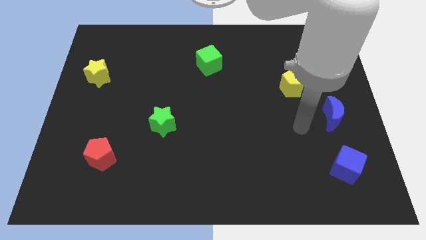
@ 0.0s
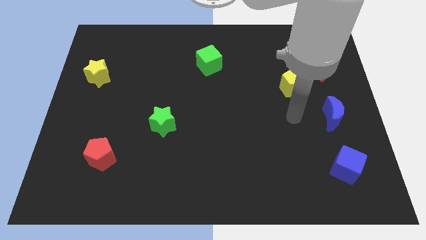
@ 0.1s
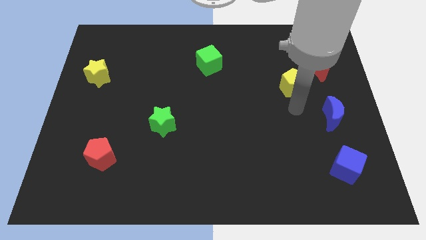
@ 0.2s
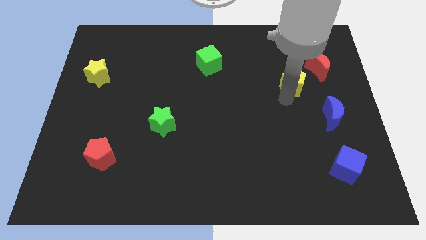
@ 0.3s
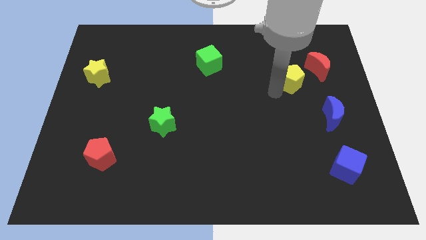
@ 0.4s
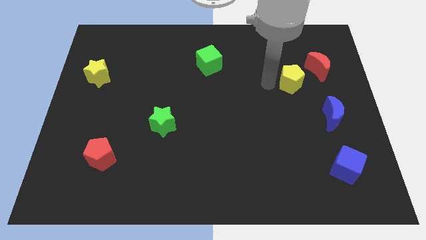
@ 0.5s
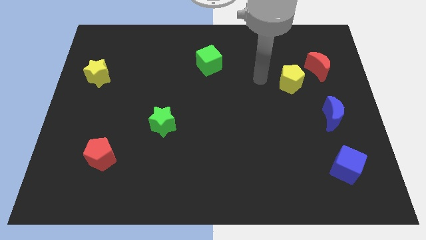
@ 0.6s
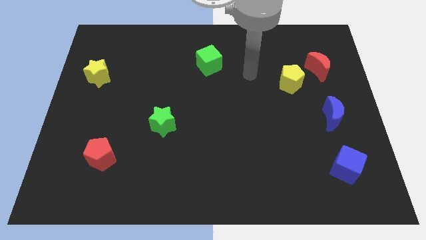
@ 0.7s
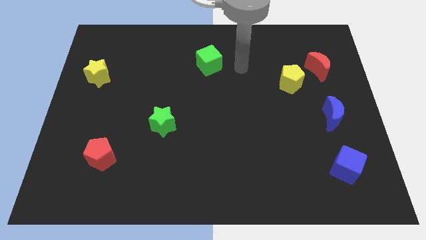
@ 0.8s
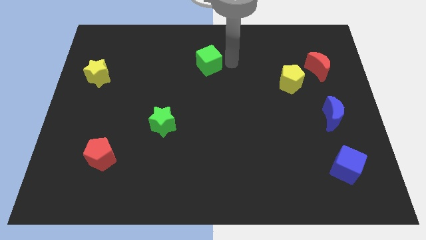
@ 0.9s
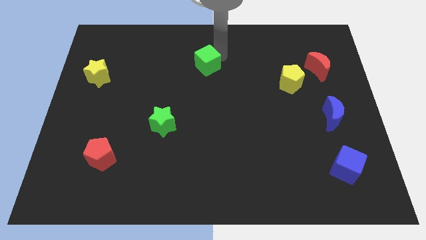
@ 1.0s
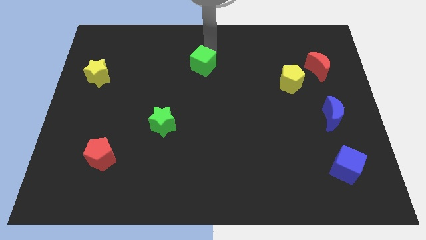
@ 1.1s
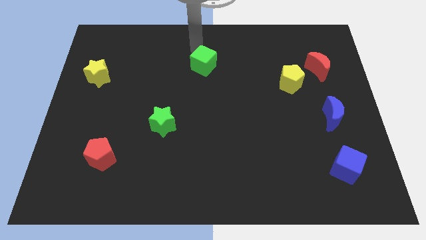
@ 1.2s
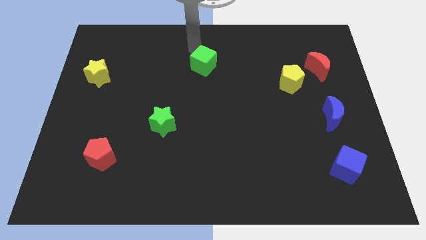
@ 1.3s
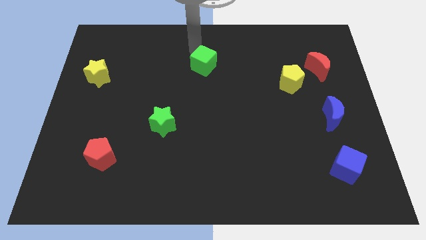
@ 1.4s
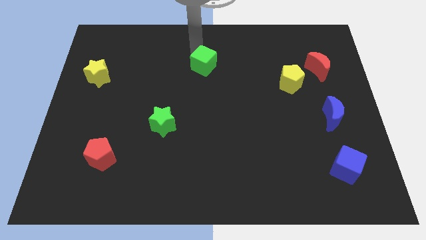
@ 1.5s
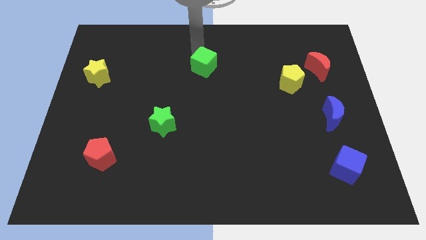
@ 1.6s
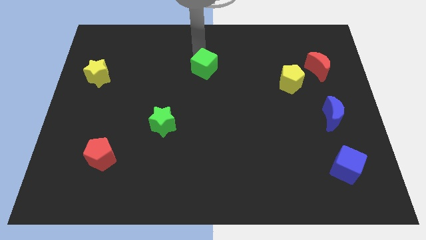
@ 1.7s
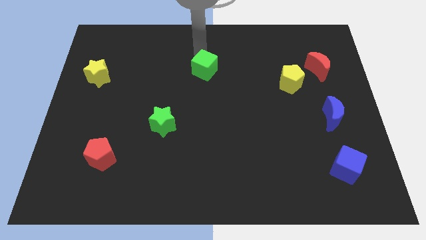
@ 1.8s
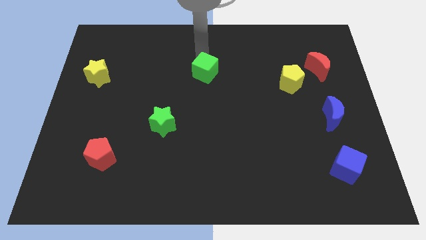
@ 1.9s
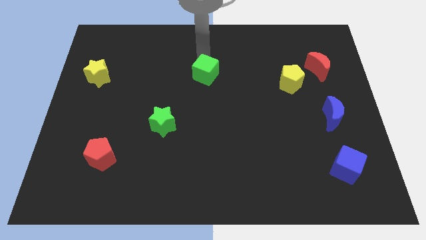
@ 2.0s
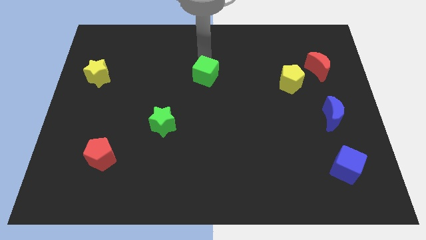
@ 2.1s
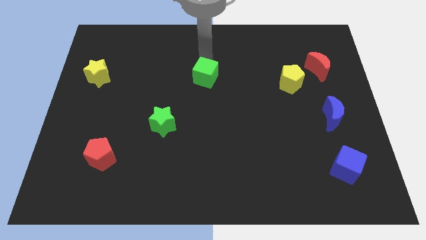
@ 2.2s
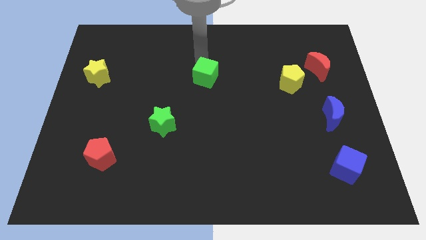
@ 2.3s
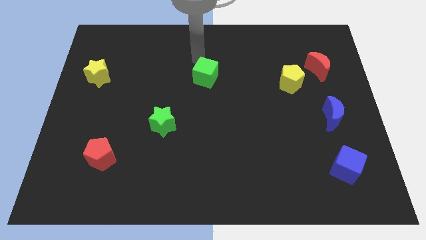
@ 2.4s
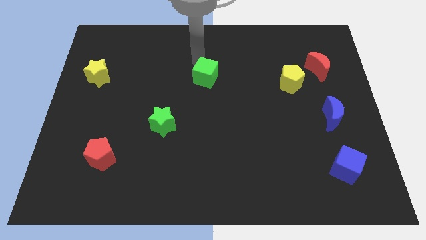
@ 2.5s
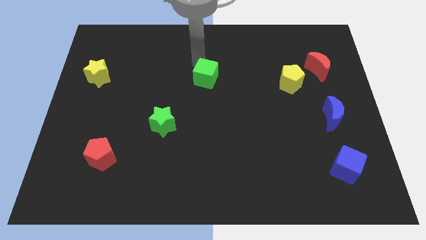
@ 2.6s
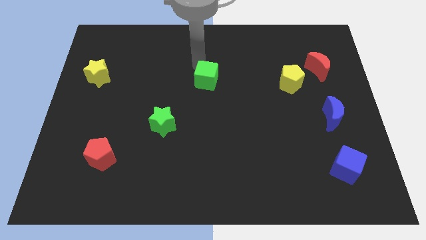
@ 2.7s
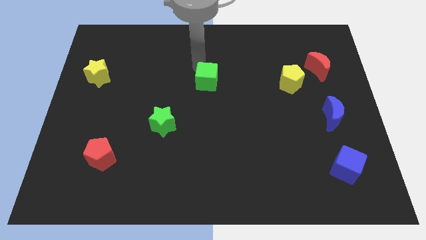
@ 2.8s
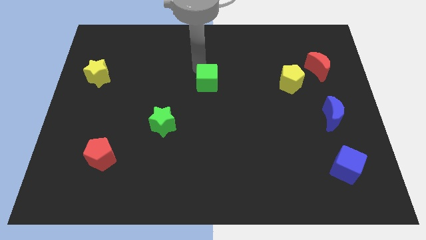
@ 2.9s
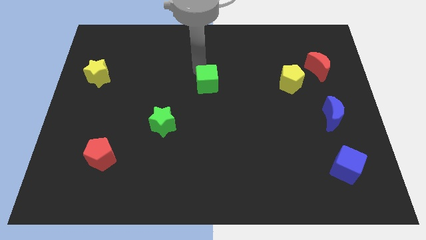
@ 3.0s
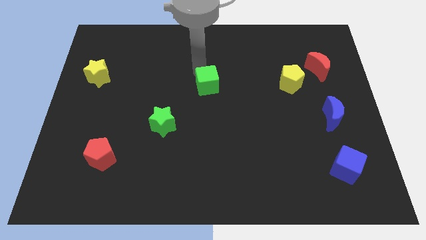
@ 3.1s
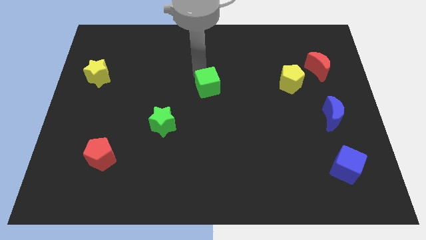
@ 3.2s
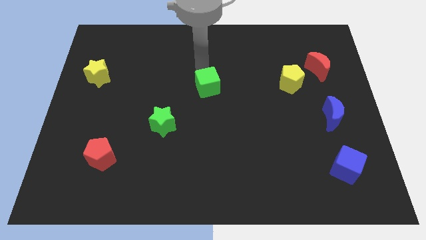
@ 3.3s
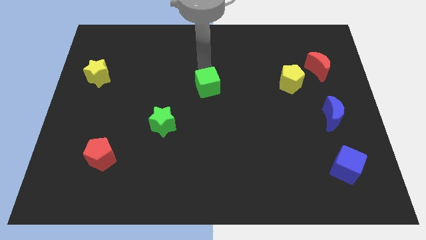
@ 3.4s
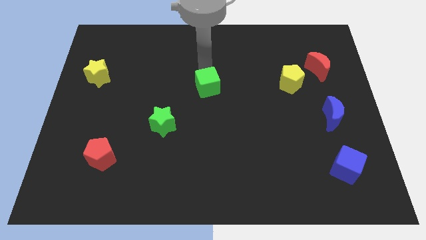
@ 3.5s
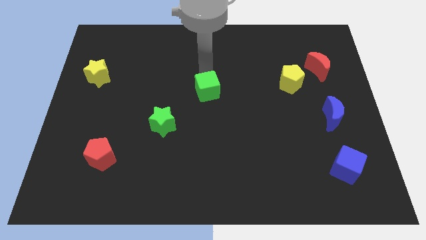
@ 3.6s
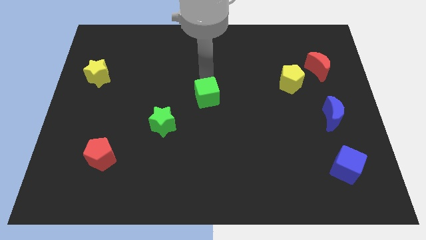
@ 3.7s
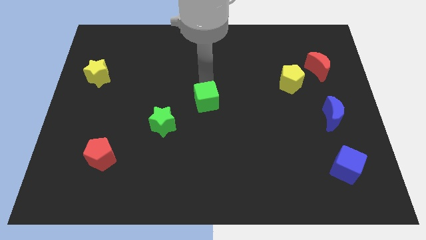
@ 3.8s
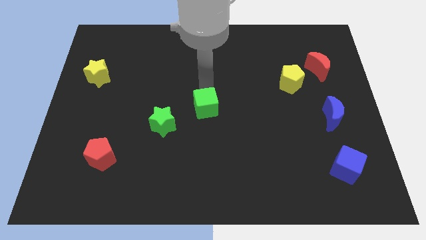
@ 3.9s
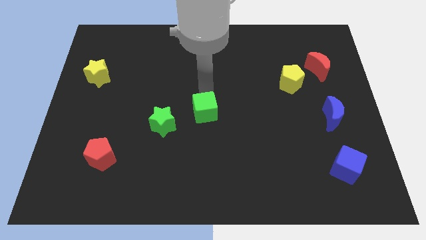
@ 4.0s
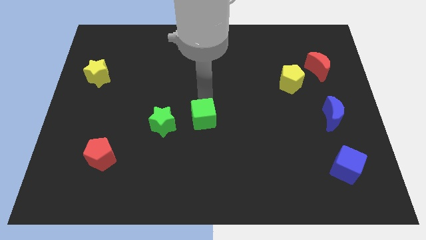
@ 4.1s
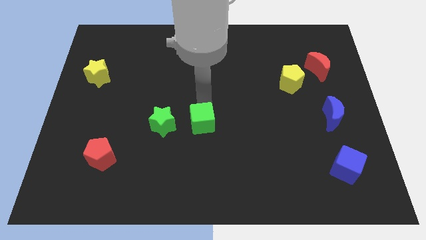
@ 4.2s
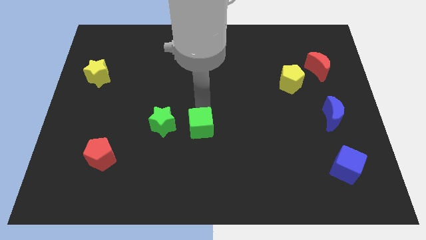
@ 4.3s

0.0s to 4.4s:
move the green cube down

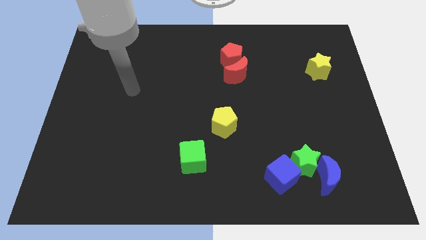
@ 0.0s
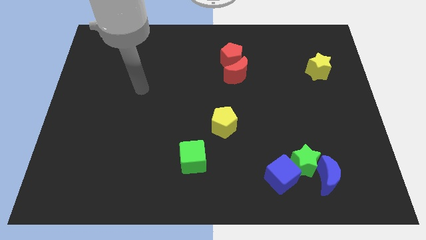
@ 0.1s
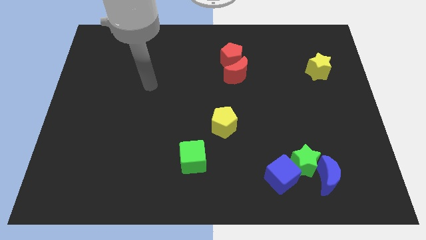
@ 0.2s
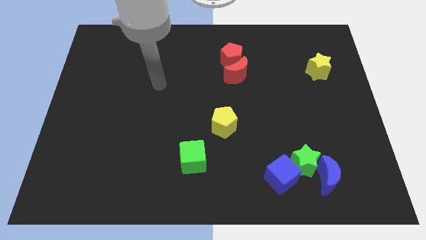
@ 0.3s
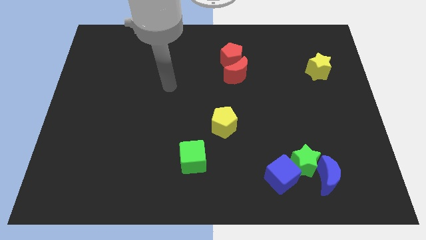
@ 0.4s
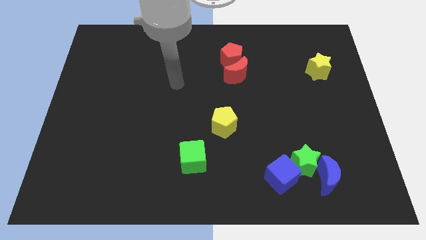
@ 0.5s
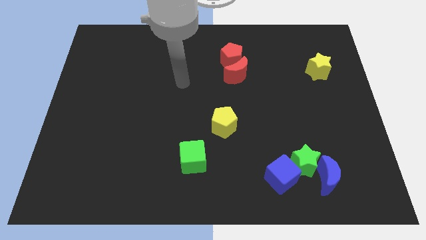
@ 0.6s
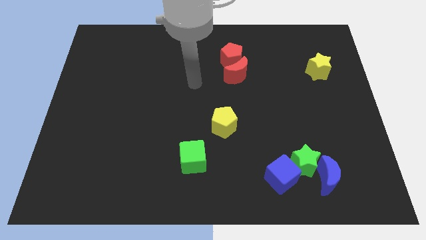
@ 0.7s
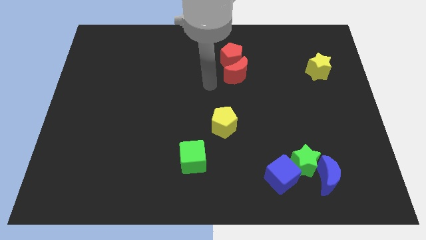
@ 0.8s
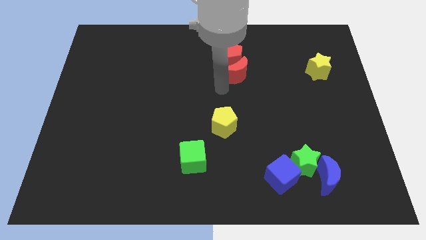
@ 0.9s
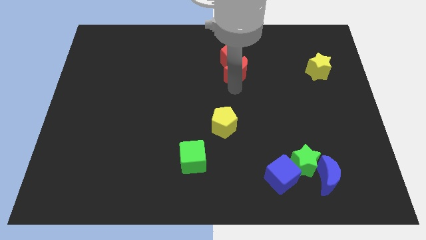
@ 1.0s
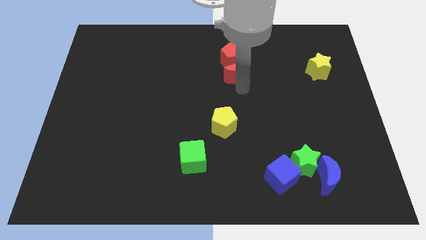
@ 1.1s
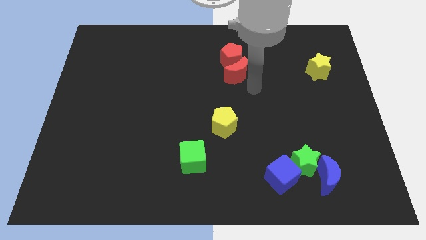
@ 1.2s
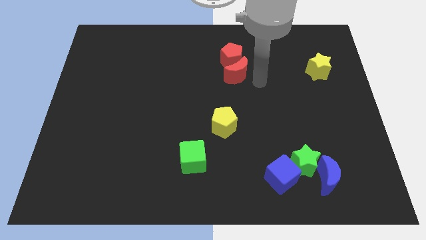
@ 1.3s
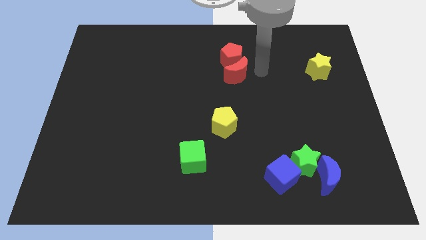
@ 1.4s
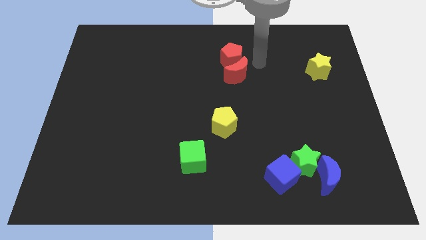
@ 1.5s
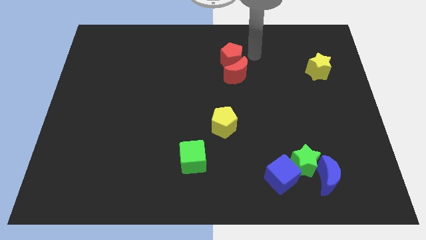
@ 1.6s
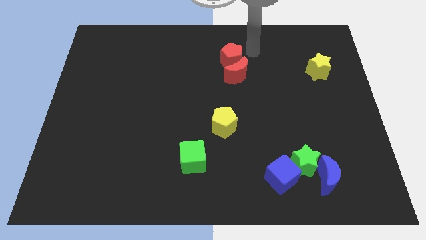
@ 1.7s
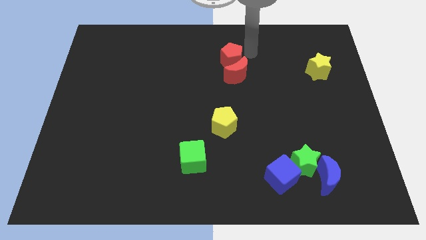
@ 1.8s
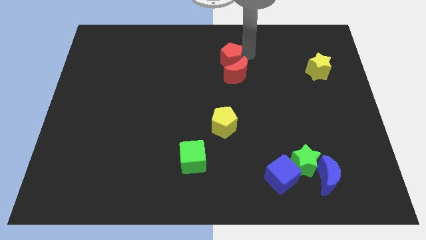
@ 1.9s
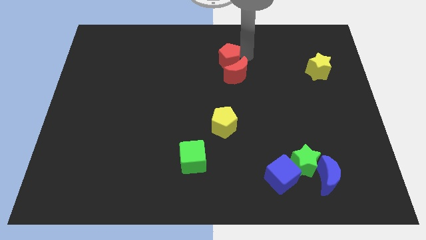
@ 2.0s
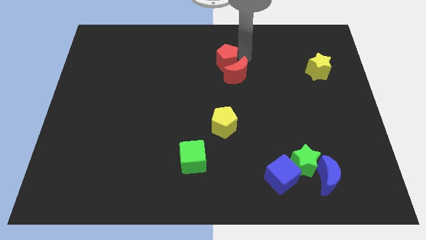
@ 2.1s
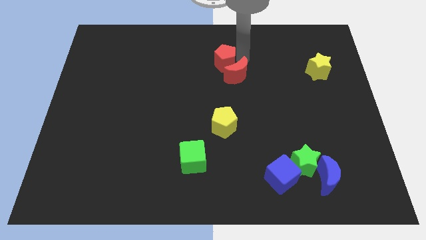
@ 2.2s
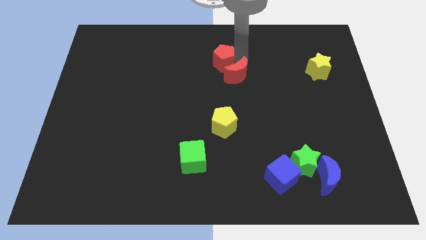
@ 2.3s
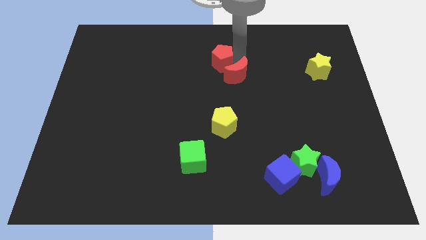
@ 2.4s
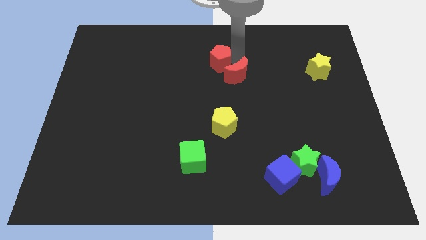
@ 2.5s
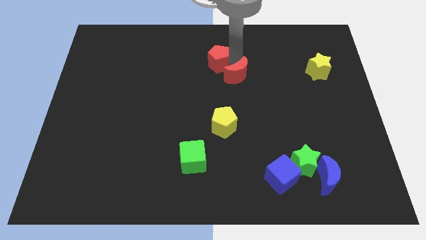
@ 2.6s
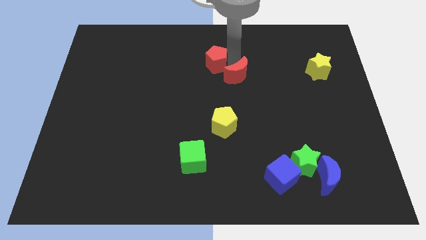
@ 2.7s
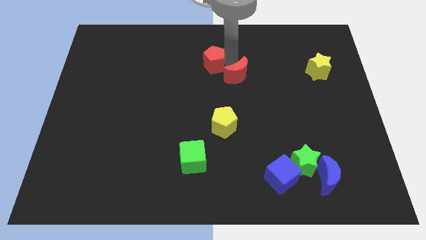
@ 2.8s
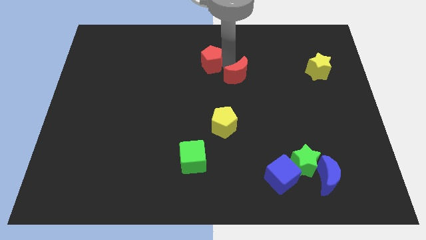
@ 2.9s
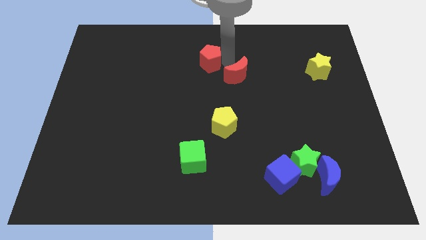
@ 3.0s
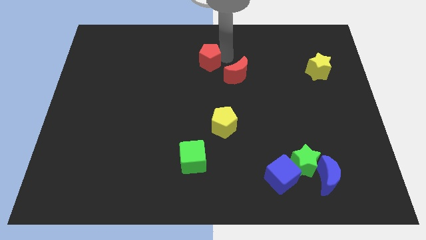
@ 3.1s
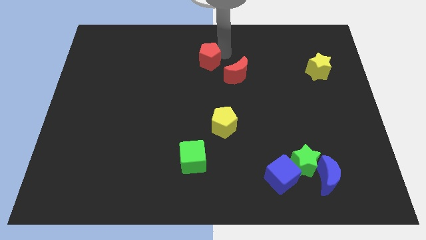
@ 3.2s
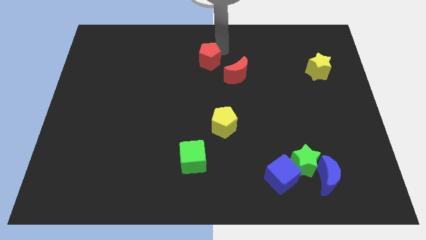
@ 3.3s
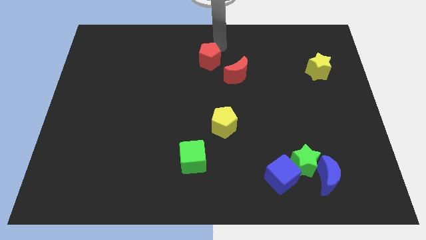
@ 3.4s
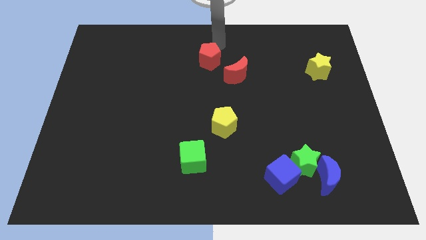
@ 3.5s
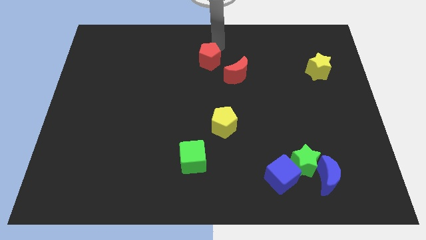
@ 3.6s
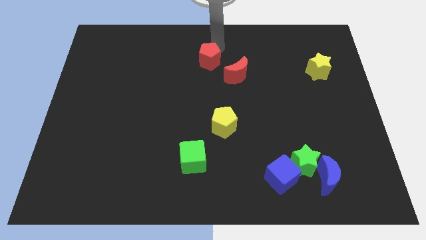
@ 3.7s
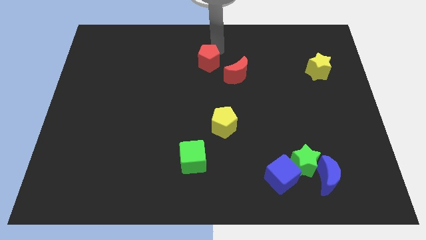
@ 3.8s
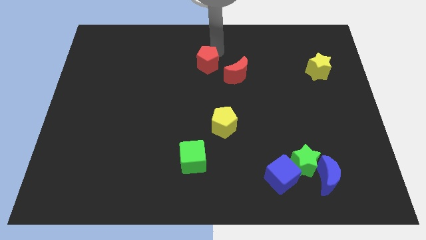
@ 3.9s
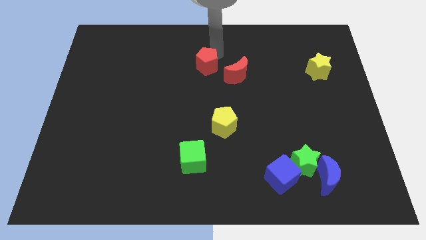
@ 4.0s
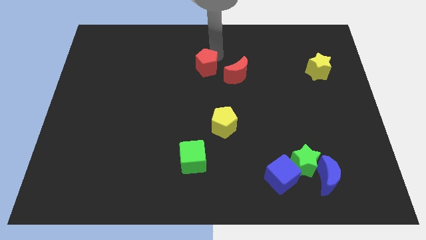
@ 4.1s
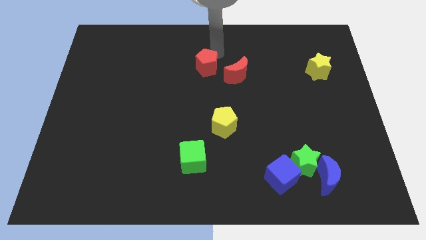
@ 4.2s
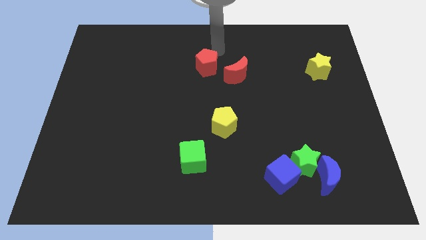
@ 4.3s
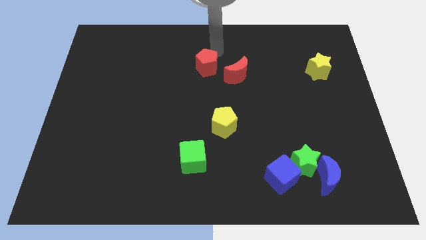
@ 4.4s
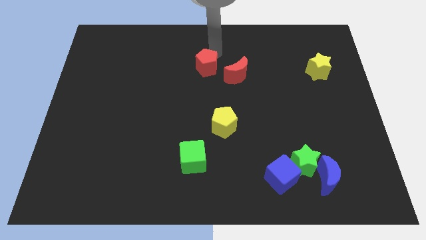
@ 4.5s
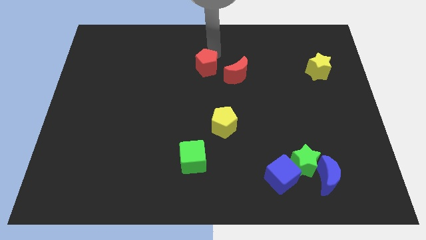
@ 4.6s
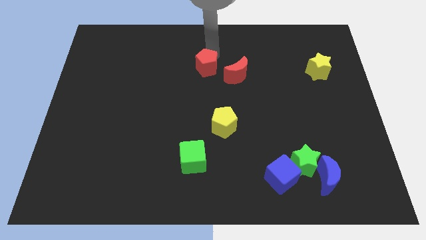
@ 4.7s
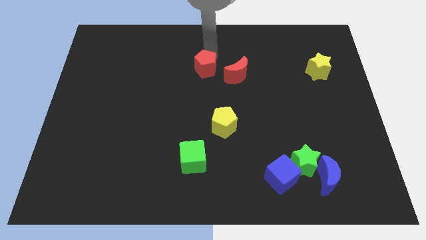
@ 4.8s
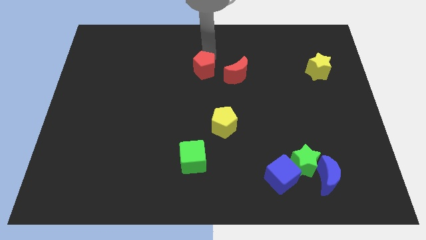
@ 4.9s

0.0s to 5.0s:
move the red pentagon downwards and left diagonally a bit
